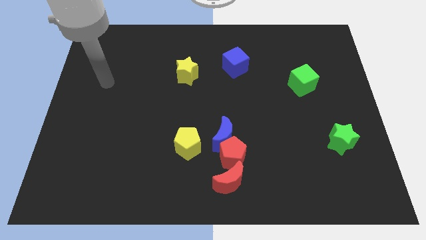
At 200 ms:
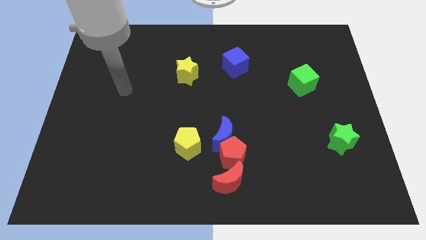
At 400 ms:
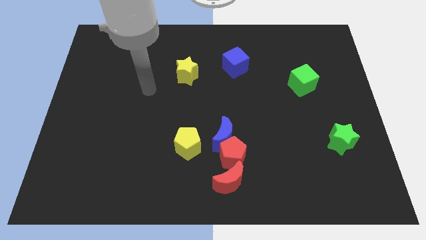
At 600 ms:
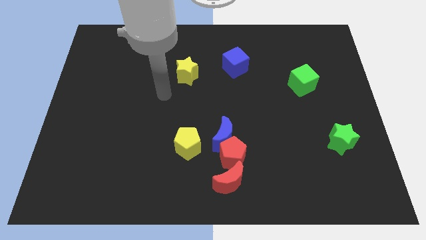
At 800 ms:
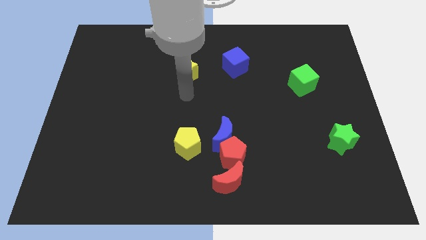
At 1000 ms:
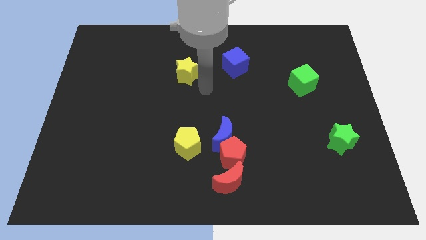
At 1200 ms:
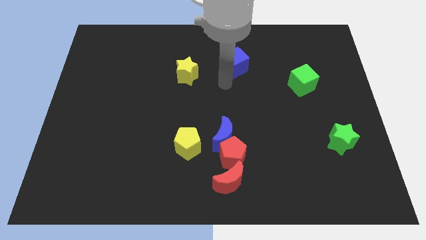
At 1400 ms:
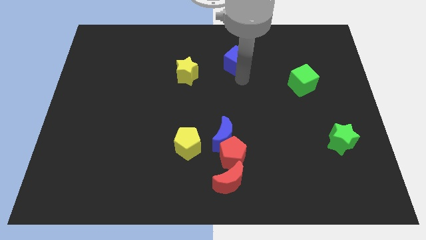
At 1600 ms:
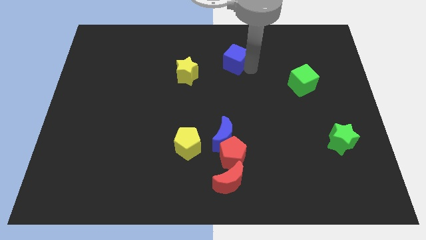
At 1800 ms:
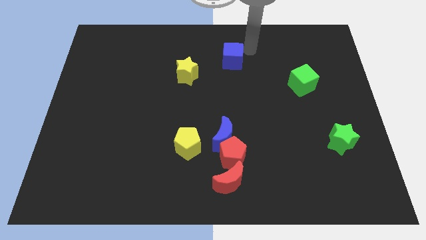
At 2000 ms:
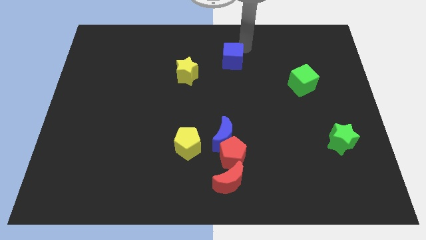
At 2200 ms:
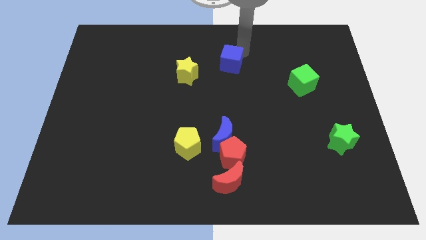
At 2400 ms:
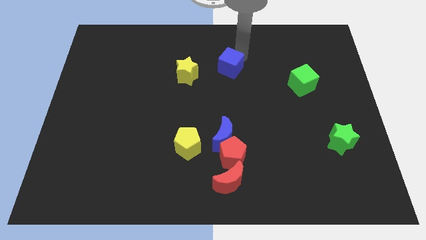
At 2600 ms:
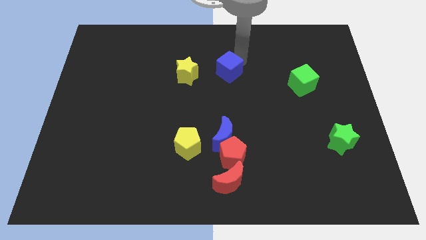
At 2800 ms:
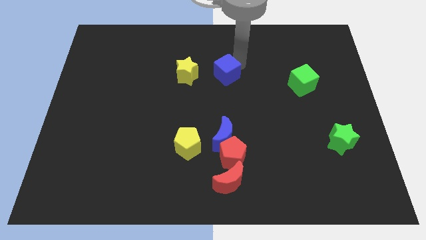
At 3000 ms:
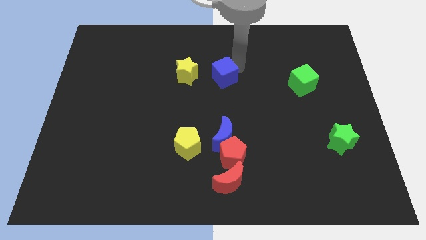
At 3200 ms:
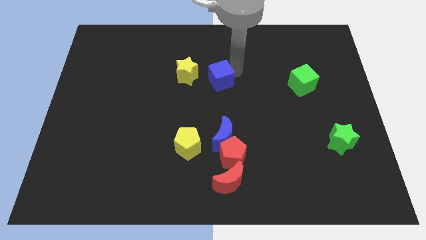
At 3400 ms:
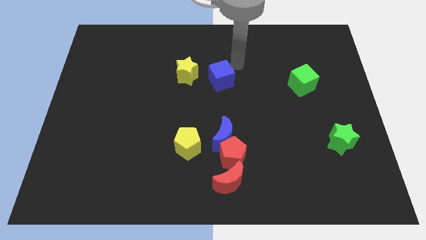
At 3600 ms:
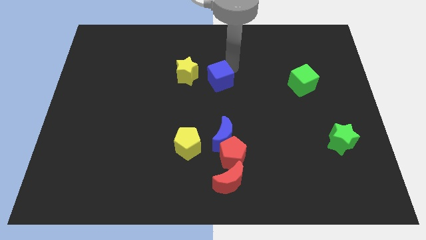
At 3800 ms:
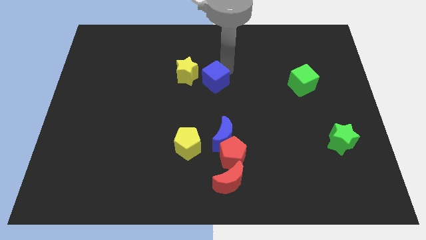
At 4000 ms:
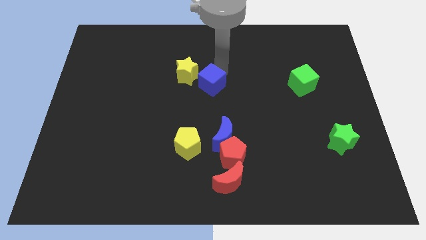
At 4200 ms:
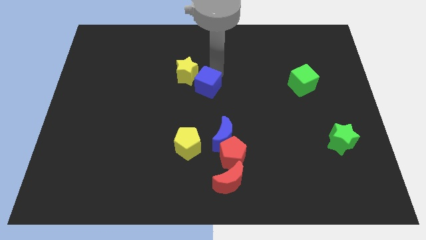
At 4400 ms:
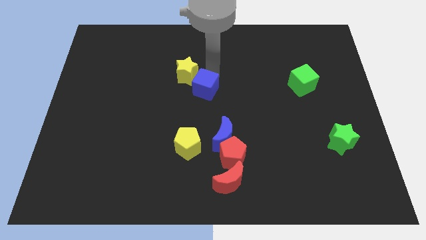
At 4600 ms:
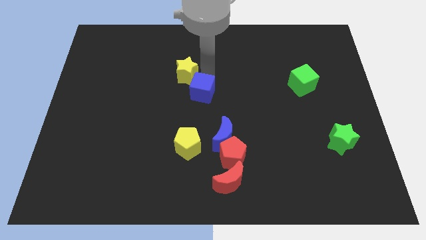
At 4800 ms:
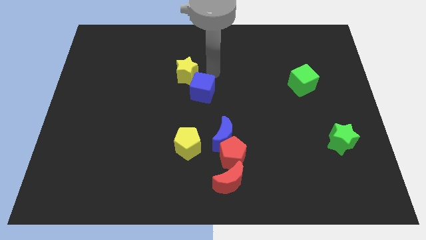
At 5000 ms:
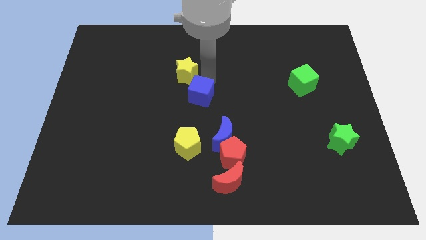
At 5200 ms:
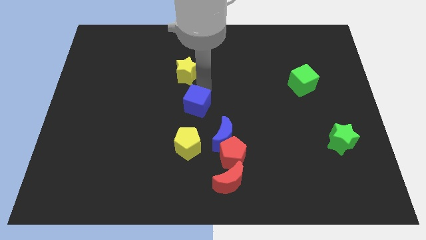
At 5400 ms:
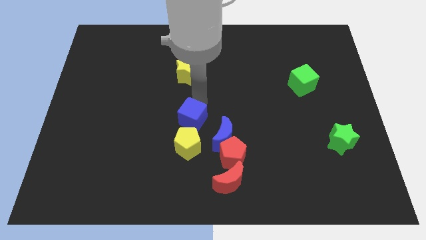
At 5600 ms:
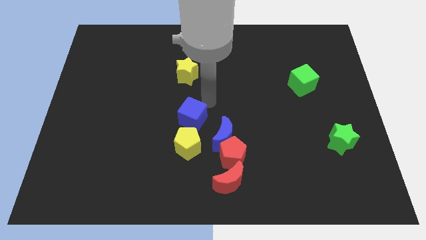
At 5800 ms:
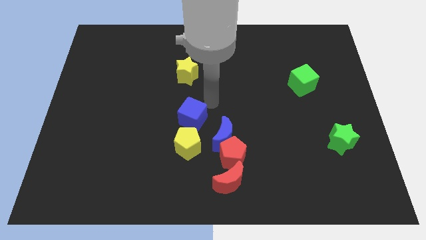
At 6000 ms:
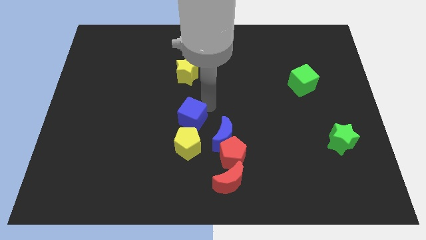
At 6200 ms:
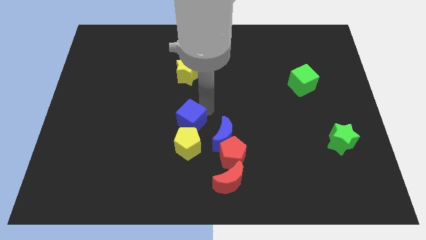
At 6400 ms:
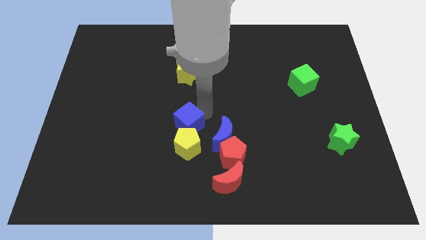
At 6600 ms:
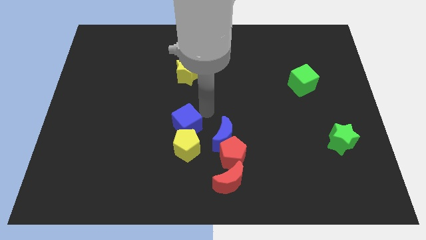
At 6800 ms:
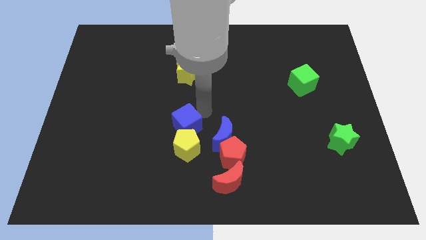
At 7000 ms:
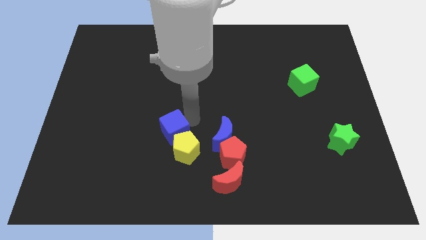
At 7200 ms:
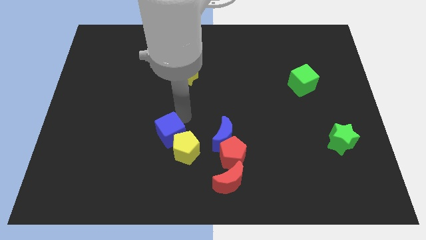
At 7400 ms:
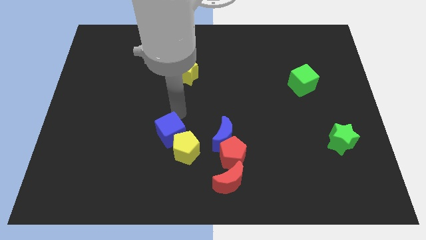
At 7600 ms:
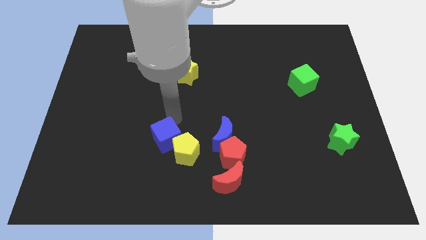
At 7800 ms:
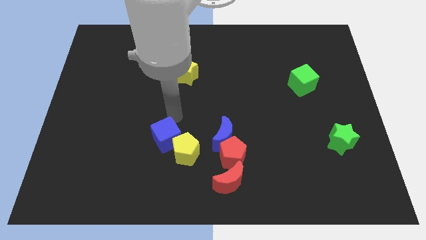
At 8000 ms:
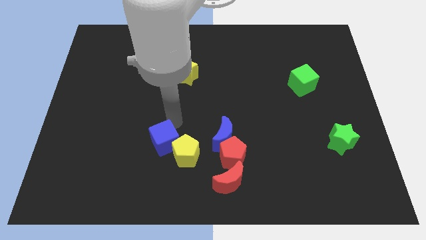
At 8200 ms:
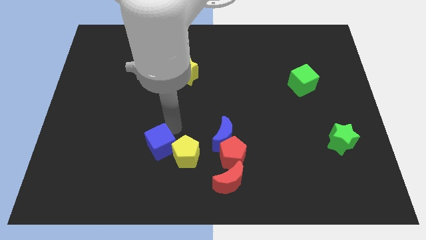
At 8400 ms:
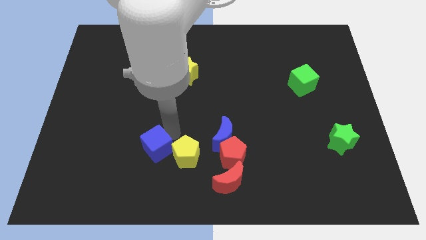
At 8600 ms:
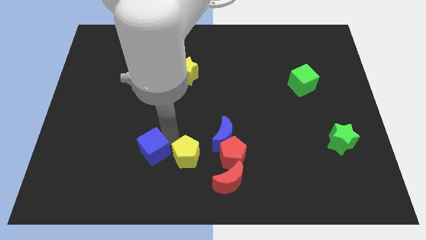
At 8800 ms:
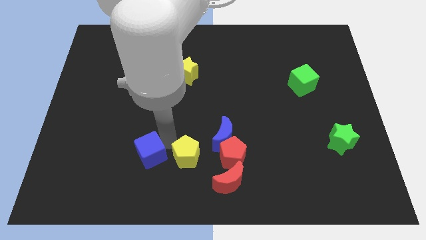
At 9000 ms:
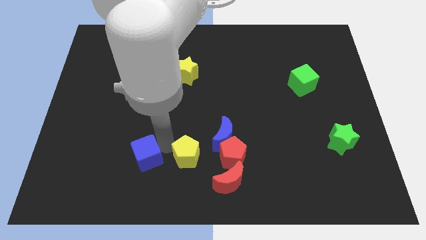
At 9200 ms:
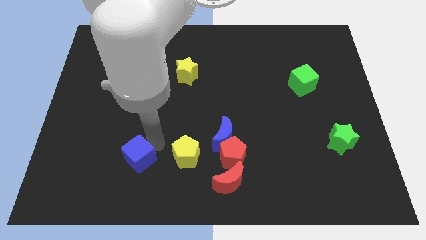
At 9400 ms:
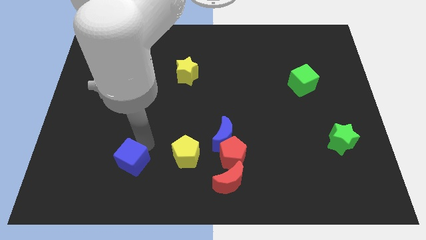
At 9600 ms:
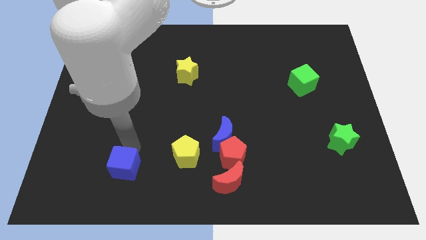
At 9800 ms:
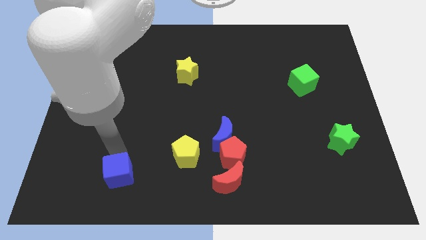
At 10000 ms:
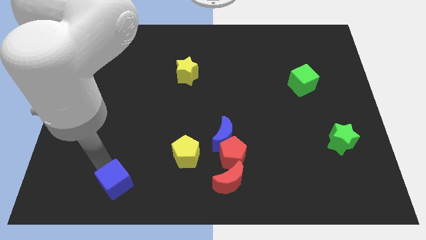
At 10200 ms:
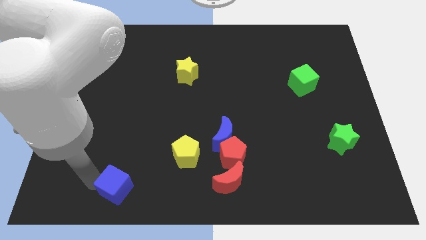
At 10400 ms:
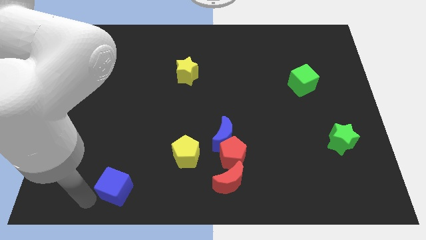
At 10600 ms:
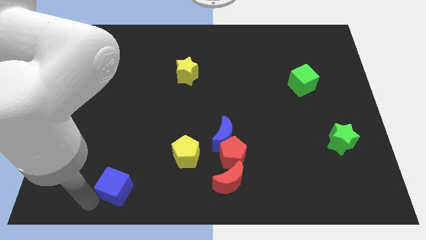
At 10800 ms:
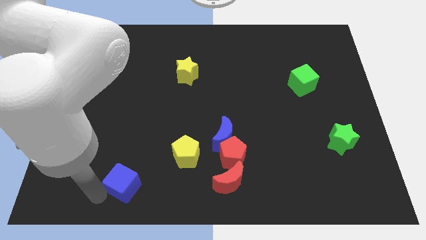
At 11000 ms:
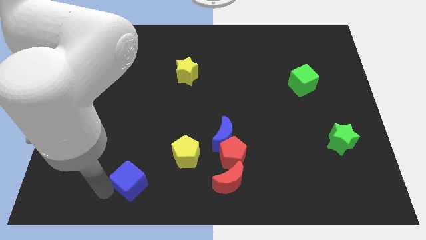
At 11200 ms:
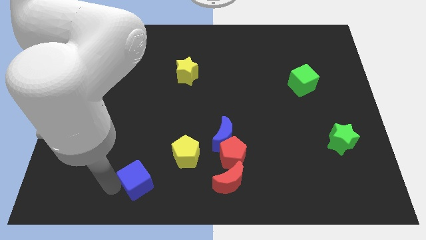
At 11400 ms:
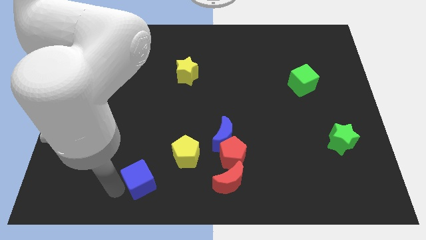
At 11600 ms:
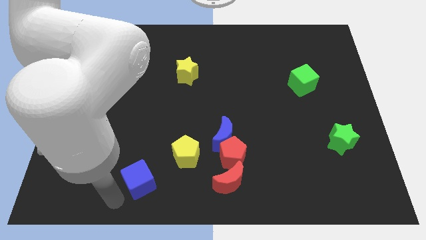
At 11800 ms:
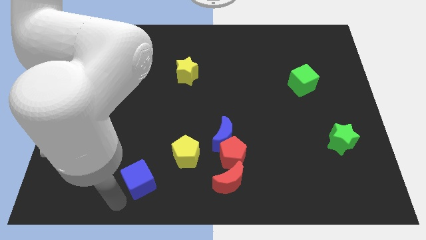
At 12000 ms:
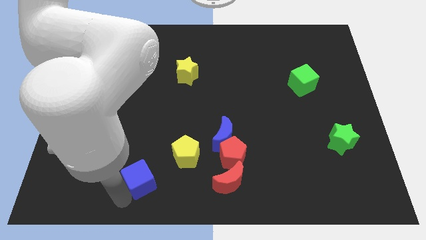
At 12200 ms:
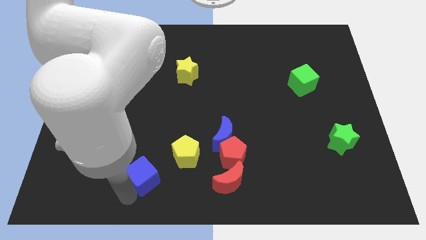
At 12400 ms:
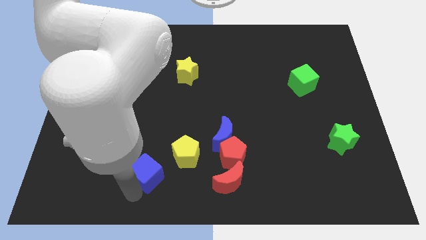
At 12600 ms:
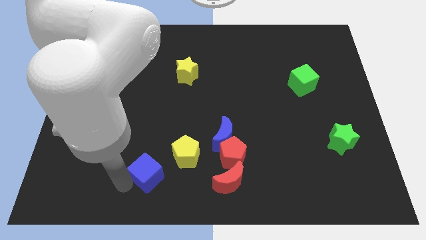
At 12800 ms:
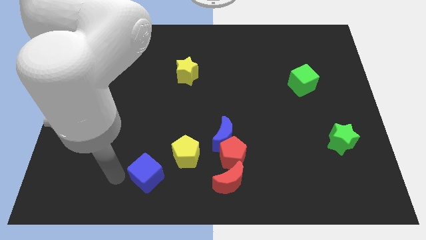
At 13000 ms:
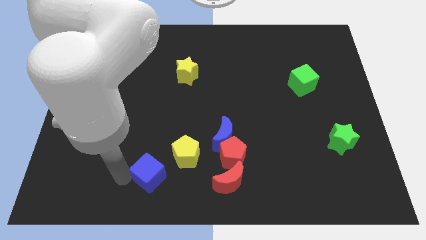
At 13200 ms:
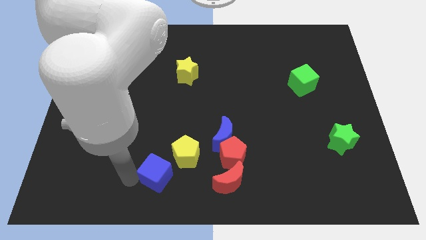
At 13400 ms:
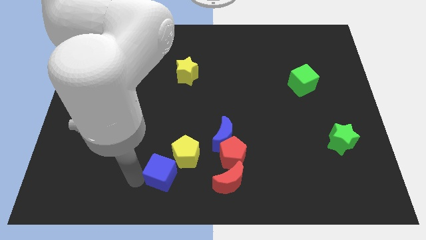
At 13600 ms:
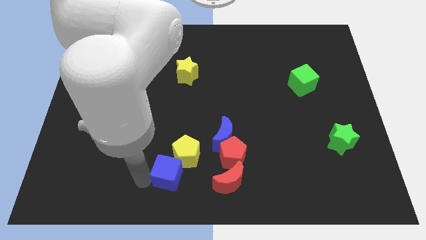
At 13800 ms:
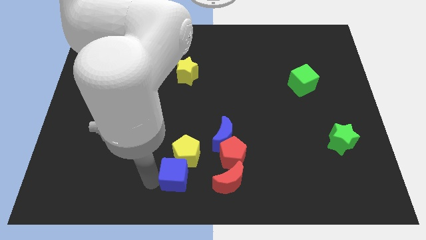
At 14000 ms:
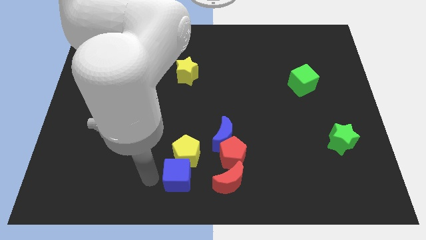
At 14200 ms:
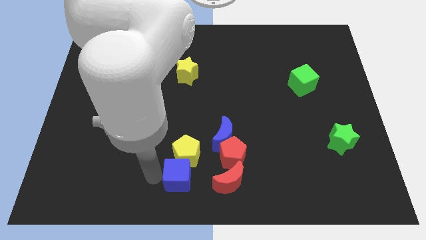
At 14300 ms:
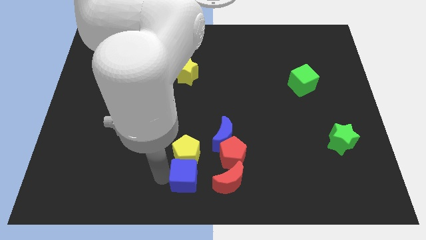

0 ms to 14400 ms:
slide the blue cube to the bottom left of the red pentagon
